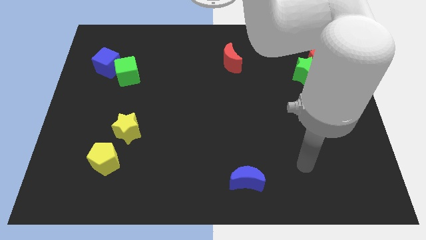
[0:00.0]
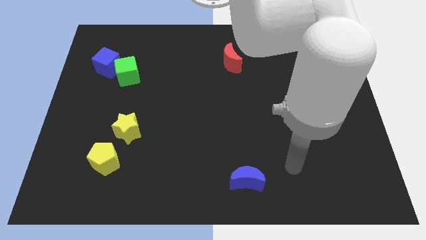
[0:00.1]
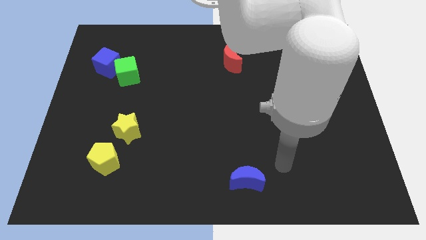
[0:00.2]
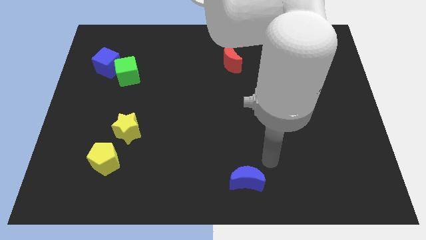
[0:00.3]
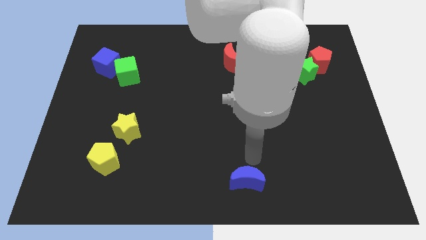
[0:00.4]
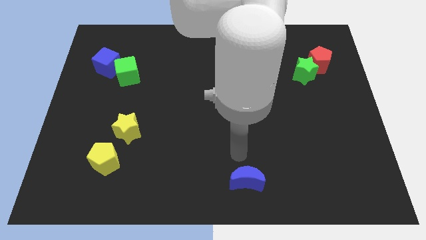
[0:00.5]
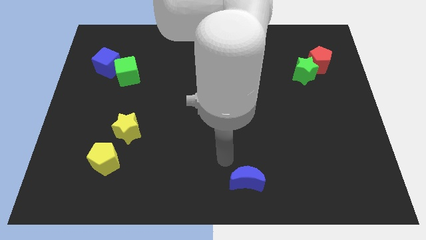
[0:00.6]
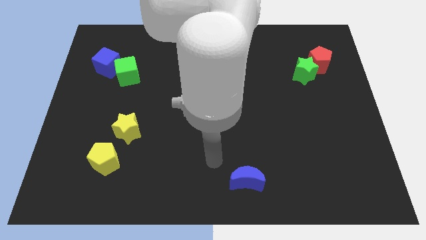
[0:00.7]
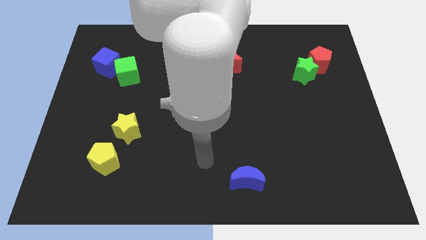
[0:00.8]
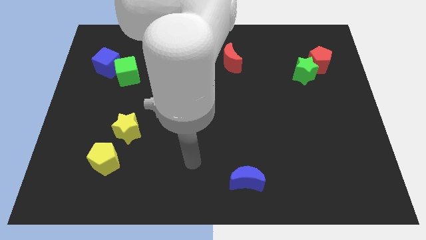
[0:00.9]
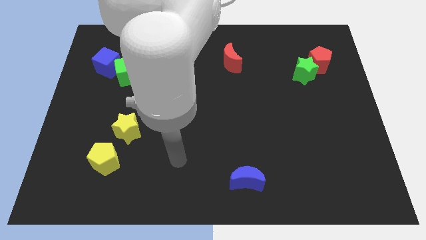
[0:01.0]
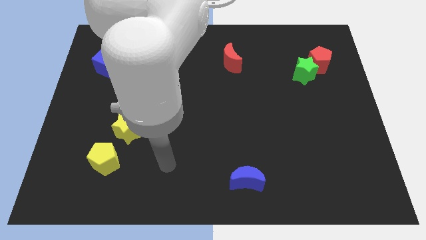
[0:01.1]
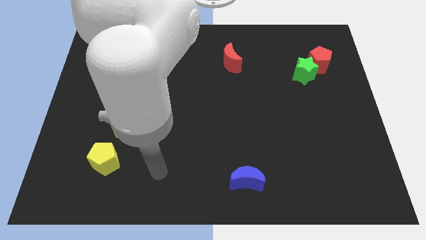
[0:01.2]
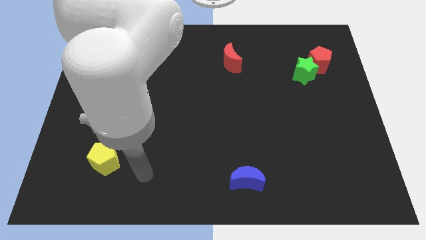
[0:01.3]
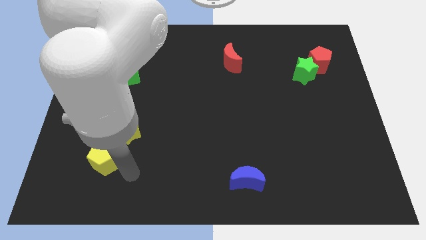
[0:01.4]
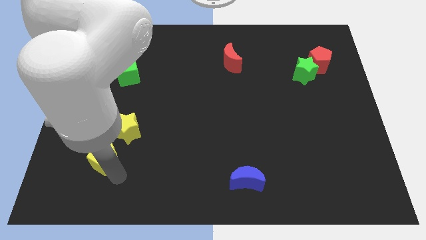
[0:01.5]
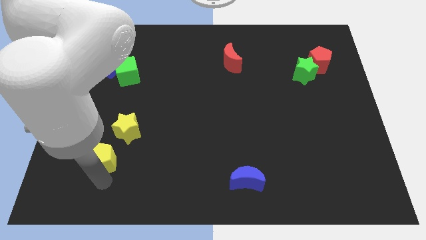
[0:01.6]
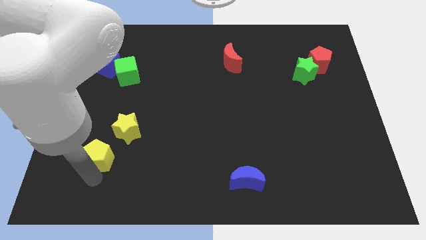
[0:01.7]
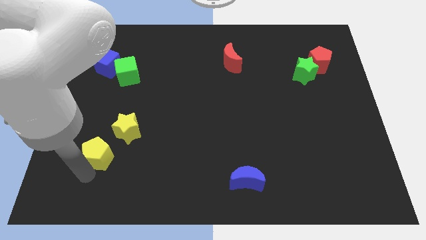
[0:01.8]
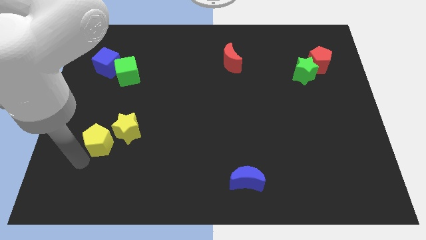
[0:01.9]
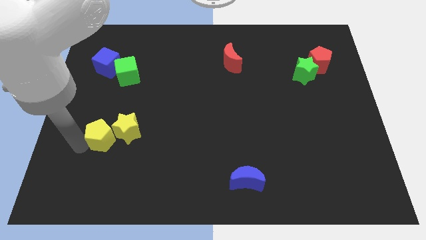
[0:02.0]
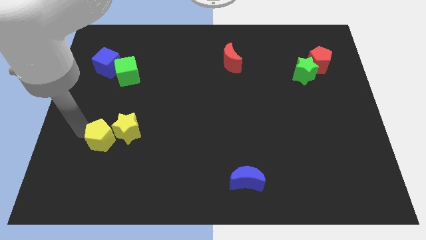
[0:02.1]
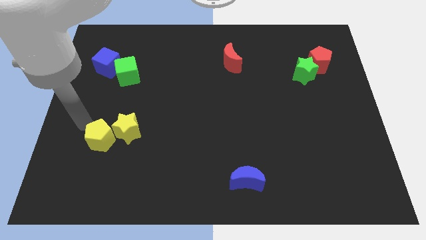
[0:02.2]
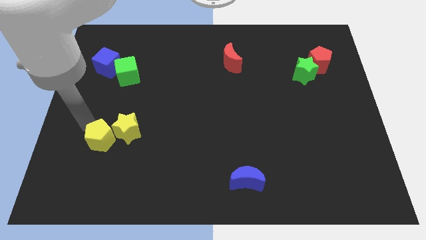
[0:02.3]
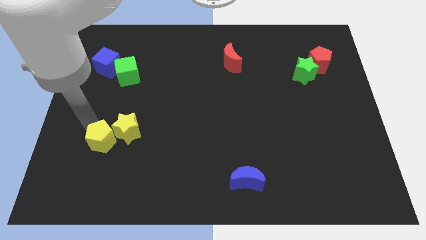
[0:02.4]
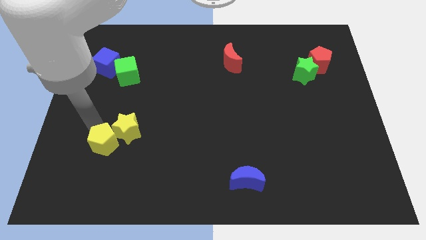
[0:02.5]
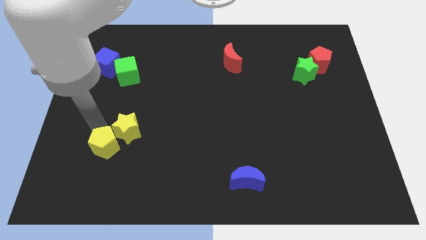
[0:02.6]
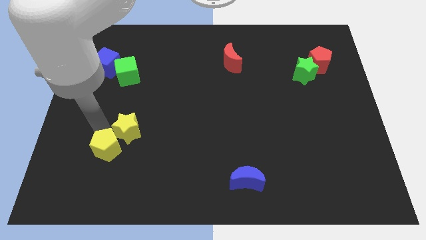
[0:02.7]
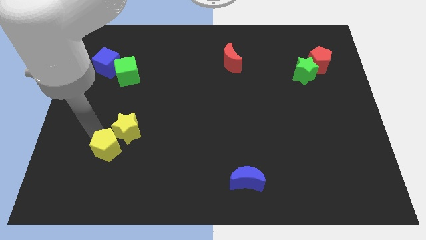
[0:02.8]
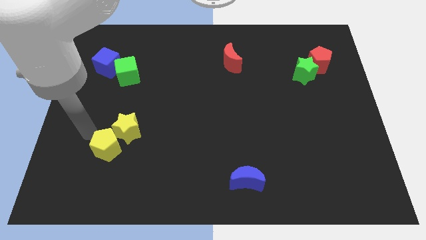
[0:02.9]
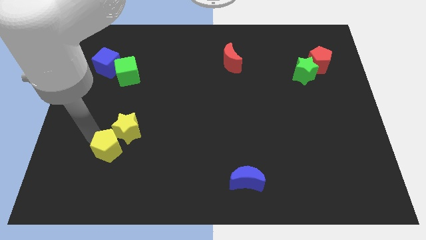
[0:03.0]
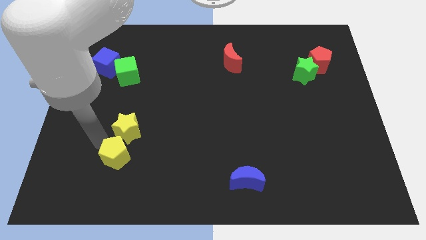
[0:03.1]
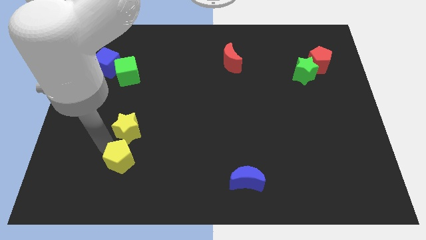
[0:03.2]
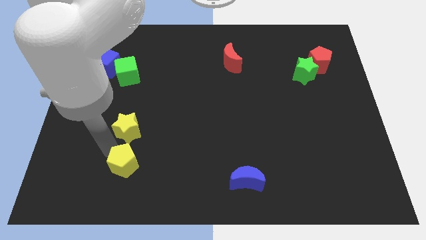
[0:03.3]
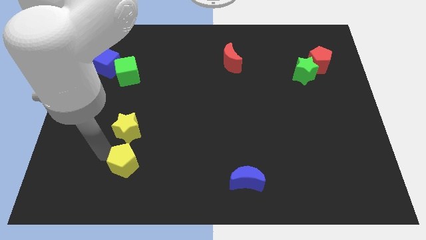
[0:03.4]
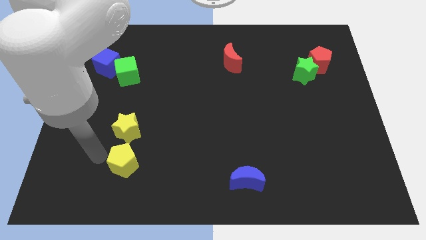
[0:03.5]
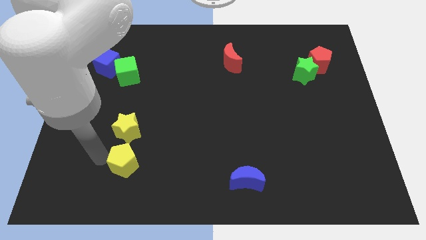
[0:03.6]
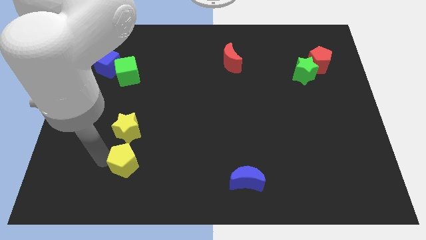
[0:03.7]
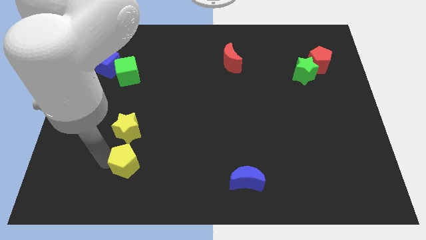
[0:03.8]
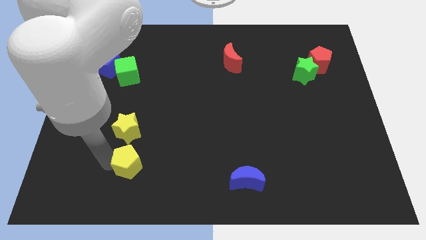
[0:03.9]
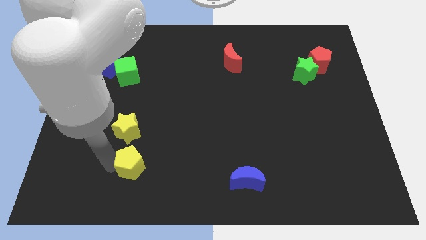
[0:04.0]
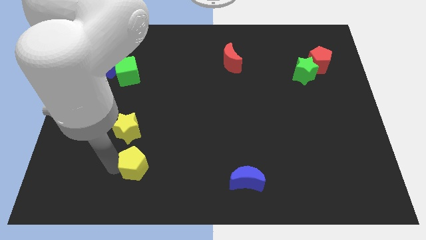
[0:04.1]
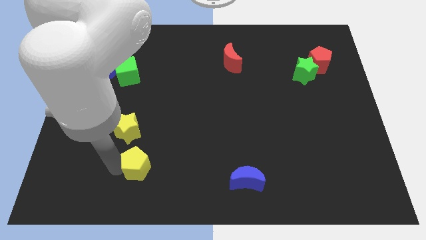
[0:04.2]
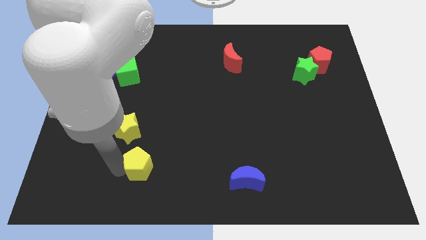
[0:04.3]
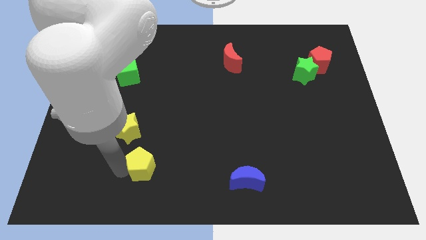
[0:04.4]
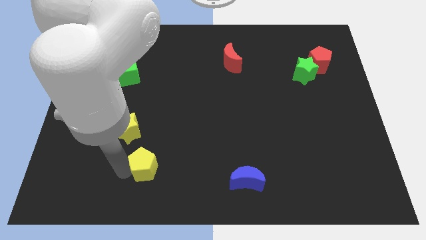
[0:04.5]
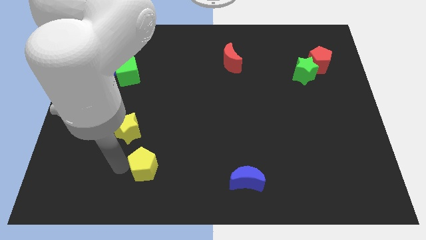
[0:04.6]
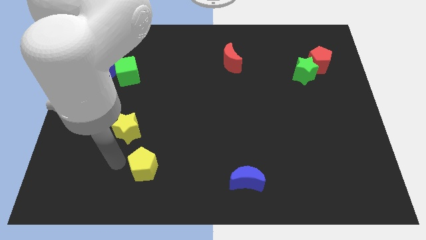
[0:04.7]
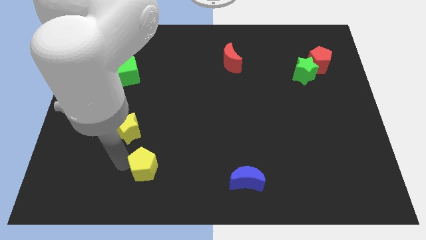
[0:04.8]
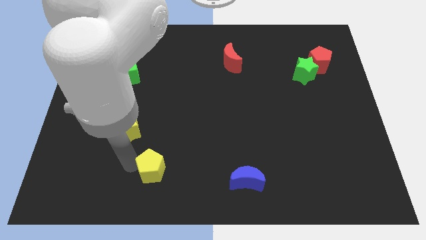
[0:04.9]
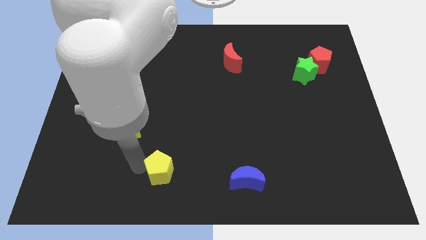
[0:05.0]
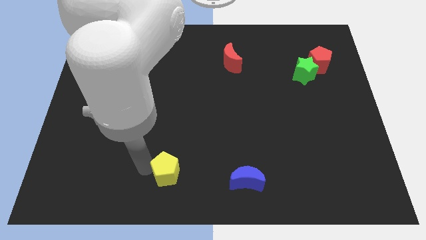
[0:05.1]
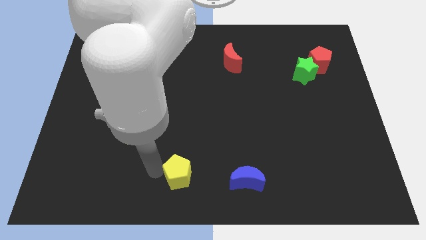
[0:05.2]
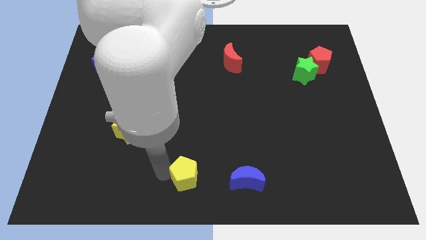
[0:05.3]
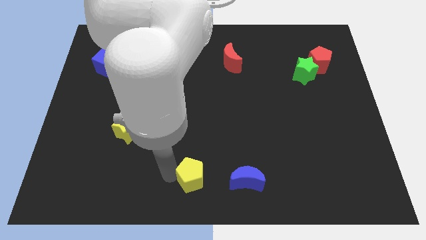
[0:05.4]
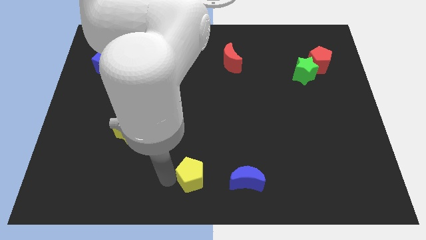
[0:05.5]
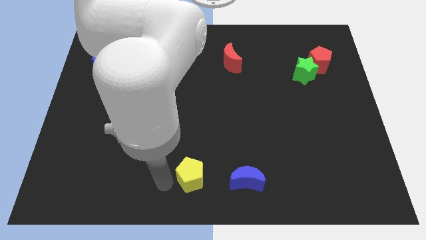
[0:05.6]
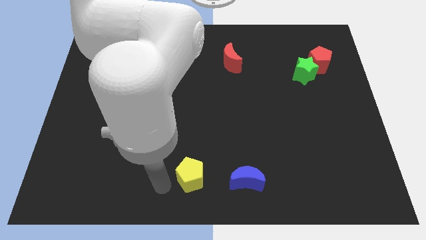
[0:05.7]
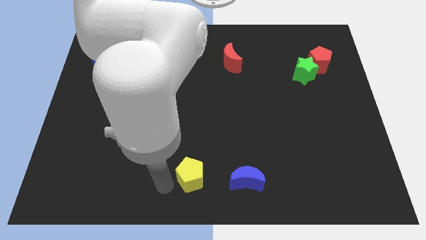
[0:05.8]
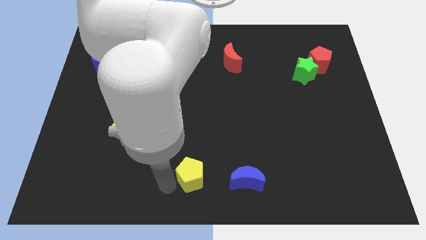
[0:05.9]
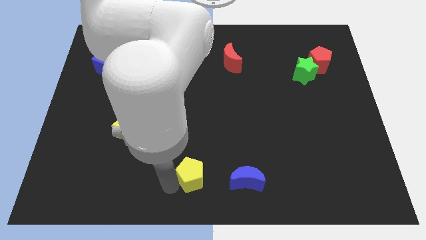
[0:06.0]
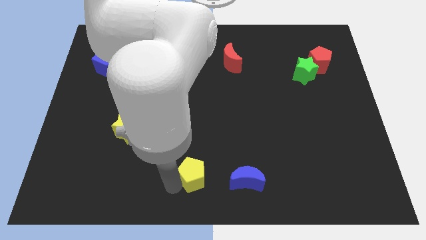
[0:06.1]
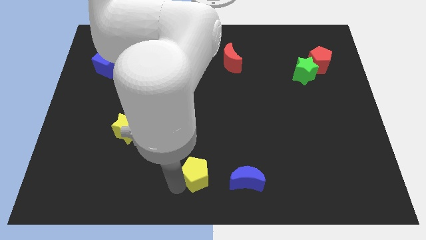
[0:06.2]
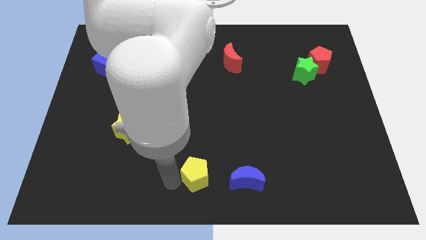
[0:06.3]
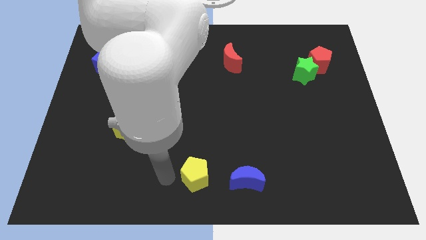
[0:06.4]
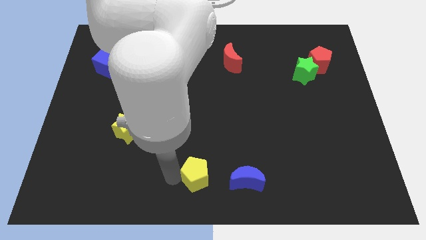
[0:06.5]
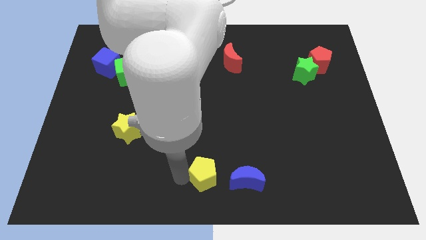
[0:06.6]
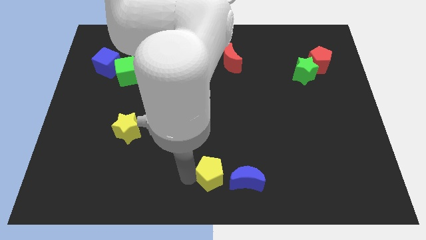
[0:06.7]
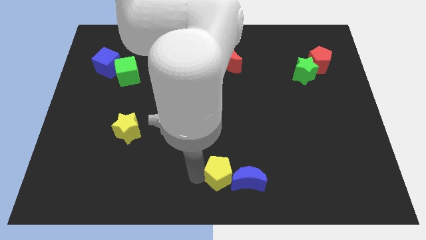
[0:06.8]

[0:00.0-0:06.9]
put the yellow pentagon towards the blue moon

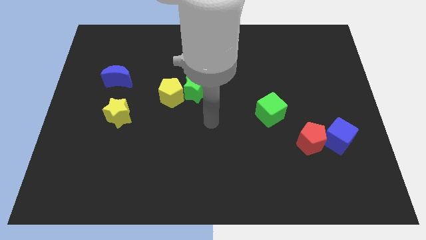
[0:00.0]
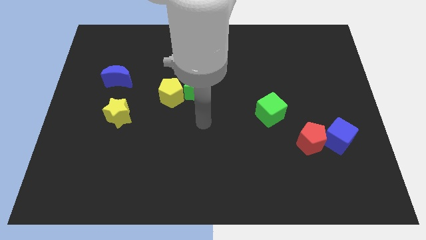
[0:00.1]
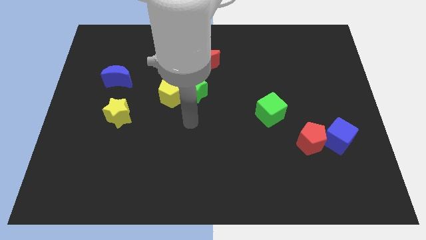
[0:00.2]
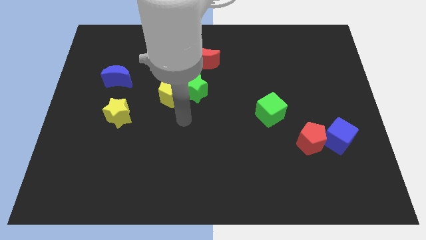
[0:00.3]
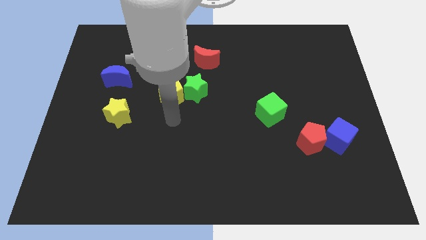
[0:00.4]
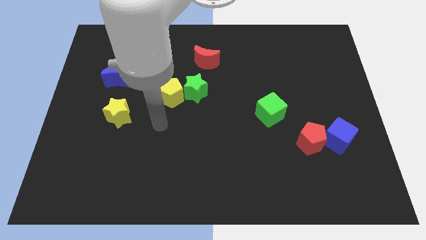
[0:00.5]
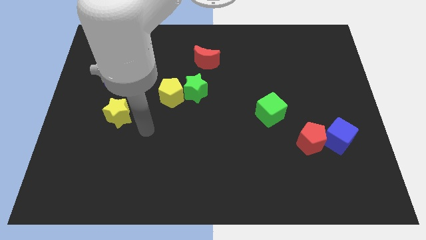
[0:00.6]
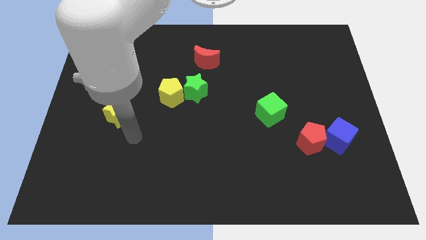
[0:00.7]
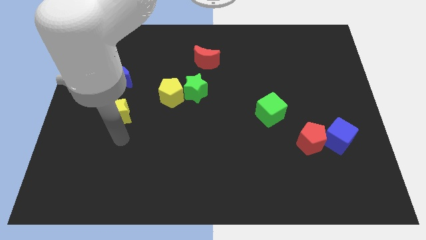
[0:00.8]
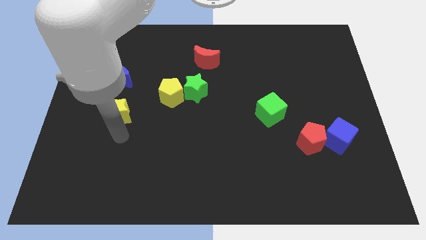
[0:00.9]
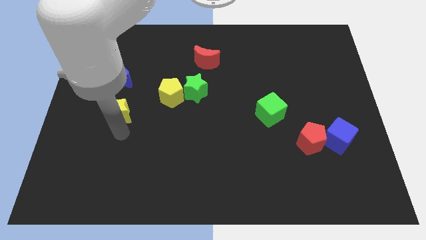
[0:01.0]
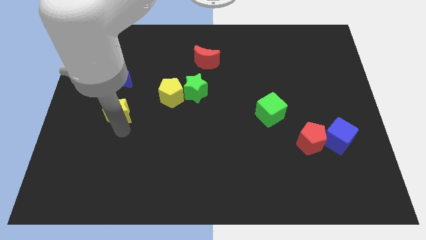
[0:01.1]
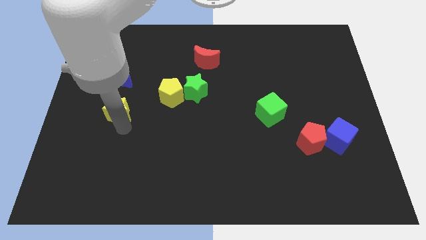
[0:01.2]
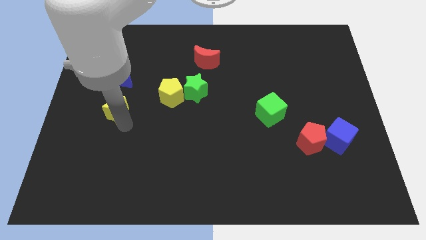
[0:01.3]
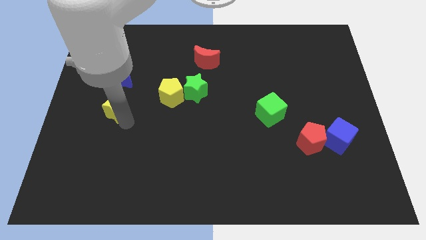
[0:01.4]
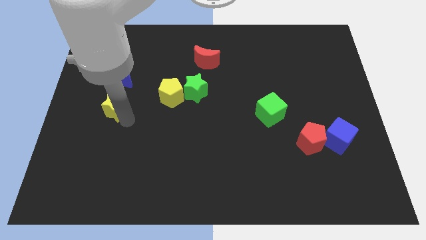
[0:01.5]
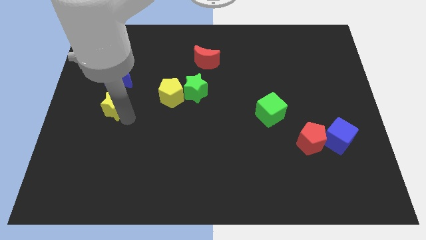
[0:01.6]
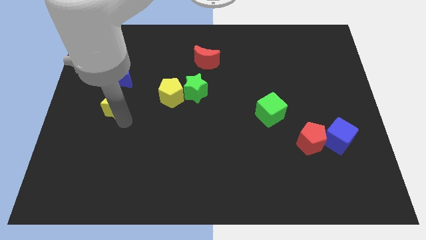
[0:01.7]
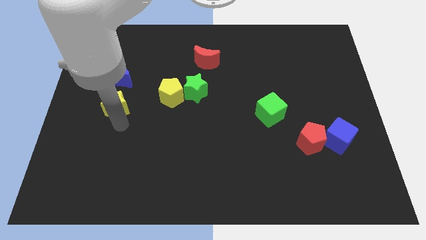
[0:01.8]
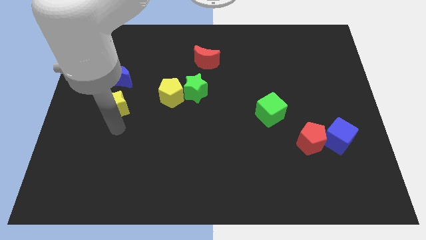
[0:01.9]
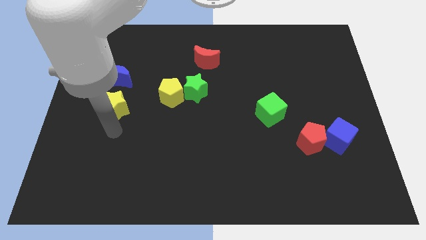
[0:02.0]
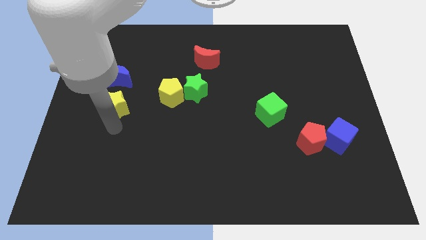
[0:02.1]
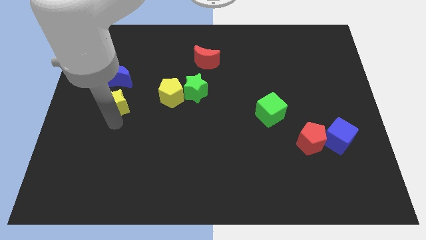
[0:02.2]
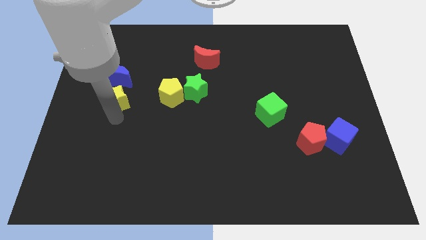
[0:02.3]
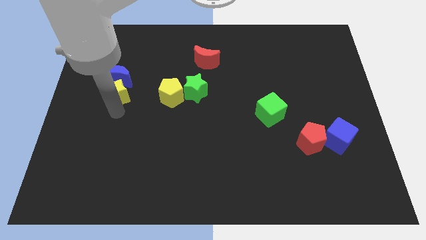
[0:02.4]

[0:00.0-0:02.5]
push the yellow star close to the blue moon
